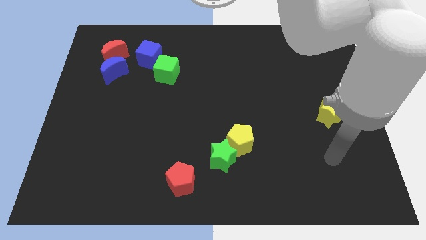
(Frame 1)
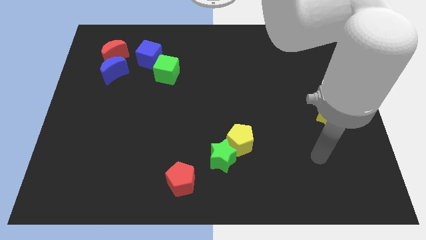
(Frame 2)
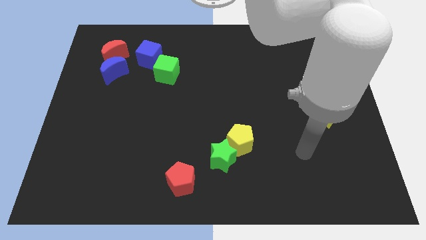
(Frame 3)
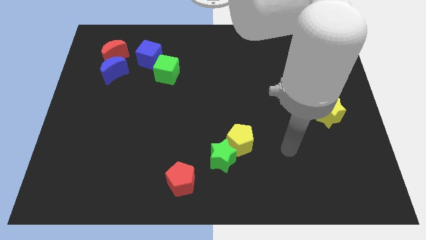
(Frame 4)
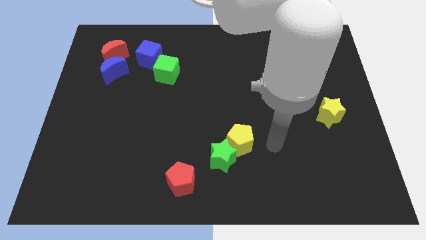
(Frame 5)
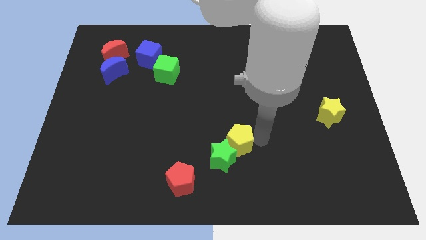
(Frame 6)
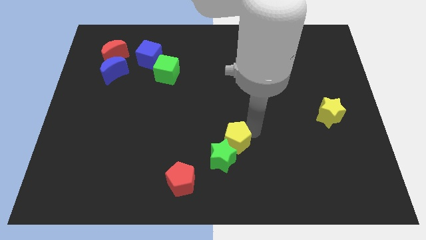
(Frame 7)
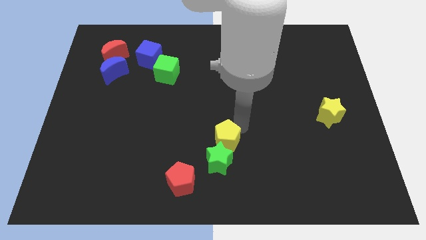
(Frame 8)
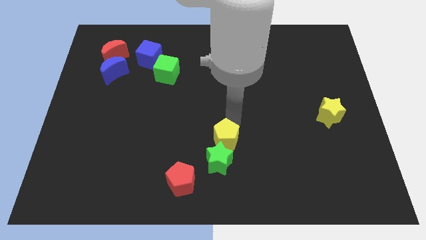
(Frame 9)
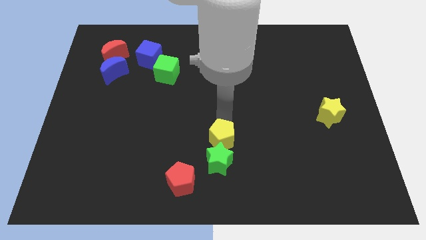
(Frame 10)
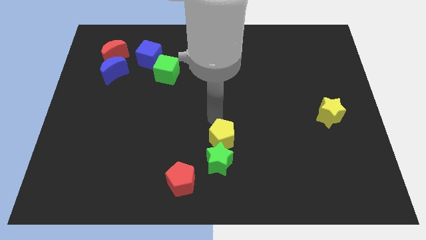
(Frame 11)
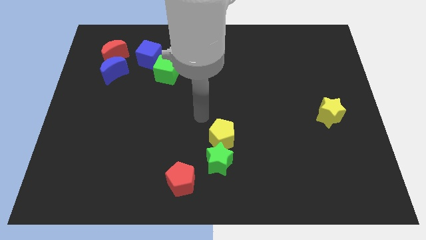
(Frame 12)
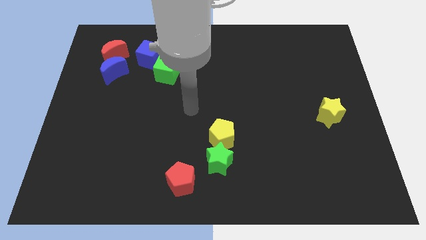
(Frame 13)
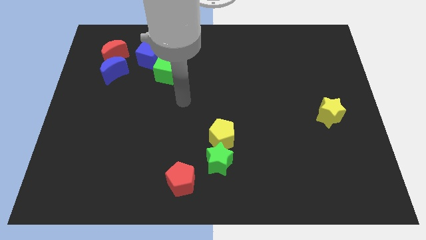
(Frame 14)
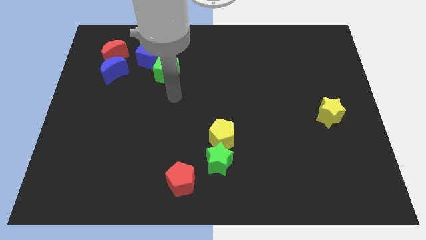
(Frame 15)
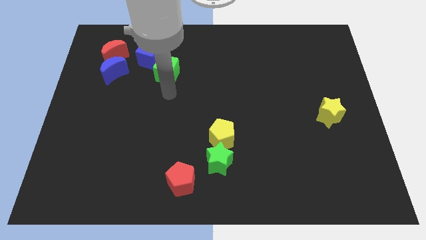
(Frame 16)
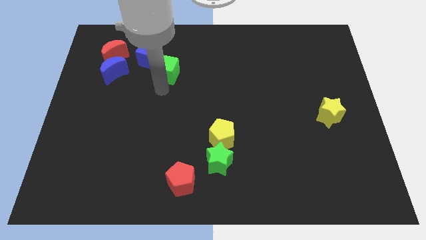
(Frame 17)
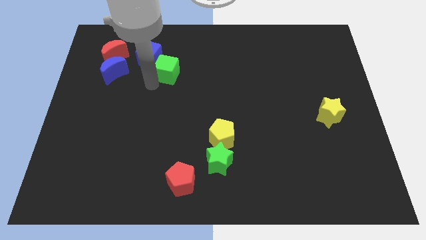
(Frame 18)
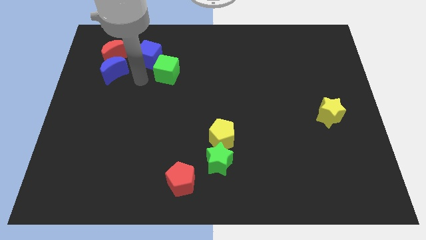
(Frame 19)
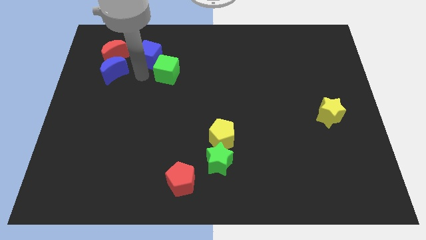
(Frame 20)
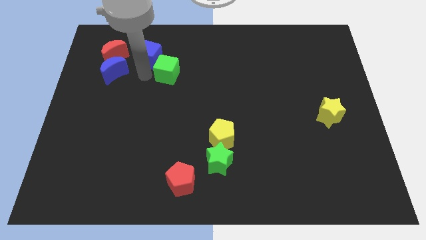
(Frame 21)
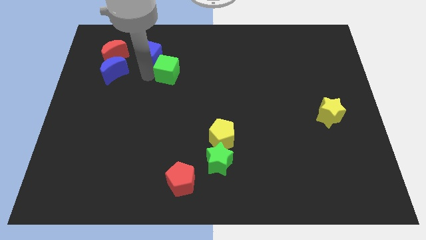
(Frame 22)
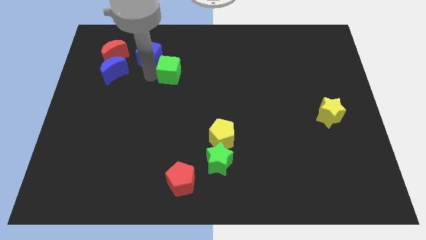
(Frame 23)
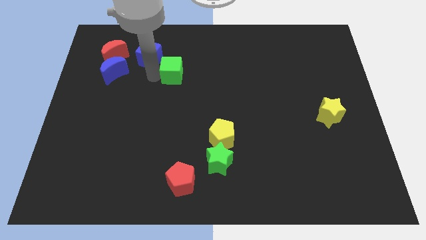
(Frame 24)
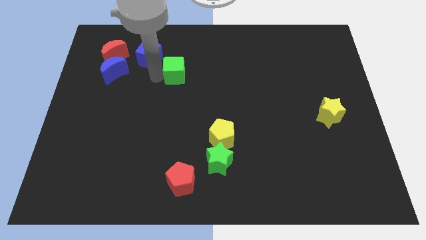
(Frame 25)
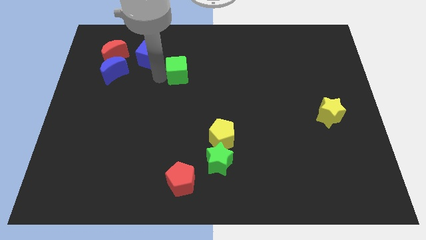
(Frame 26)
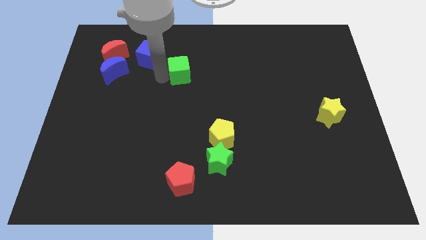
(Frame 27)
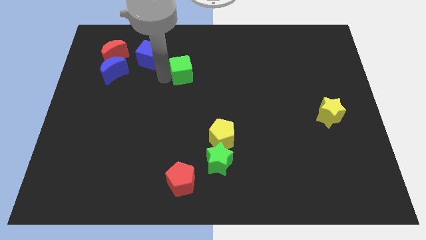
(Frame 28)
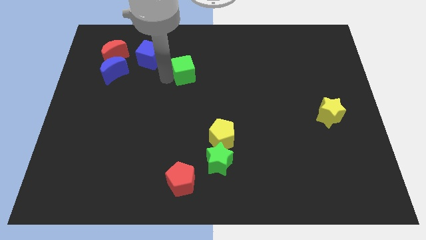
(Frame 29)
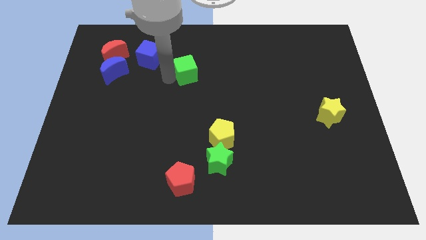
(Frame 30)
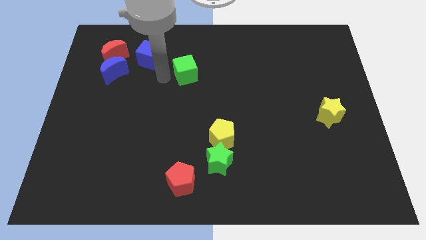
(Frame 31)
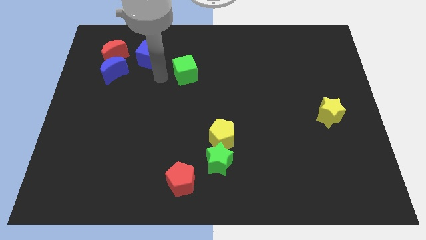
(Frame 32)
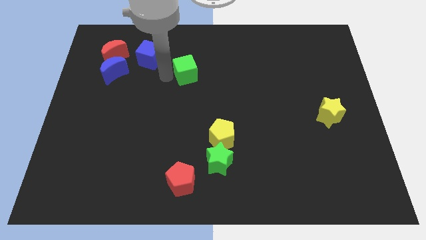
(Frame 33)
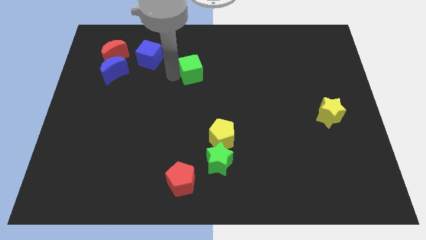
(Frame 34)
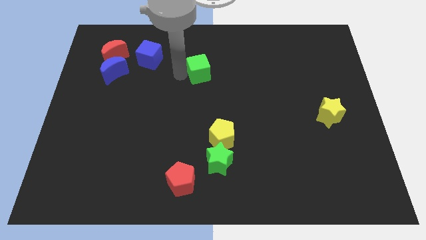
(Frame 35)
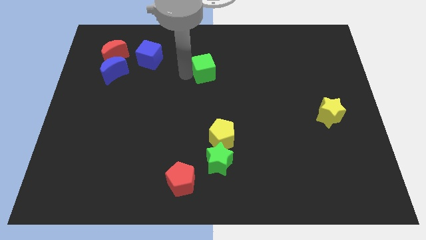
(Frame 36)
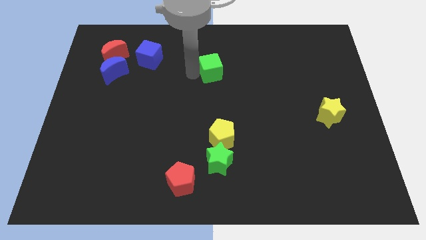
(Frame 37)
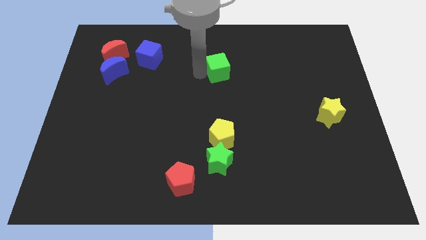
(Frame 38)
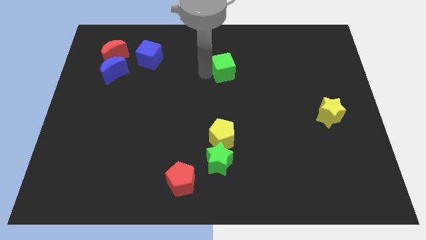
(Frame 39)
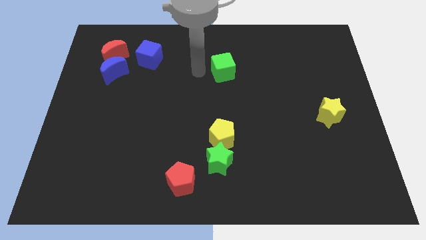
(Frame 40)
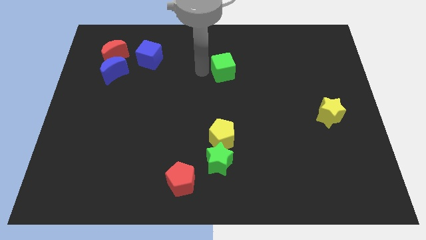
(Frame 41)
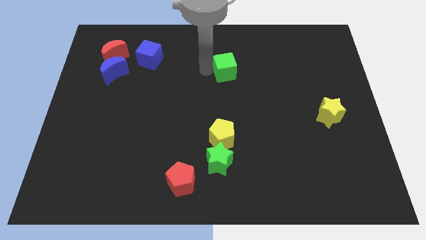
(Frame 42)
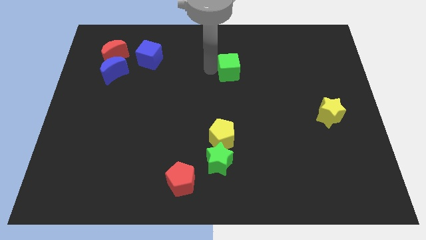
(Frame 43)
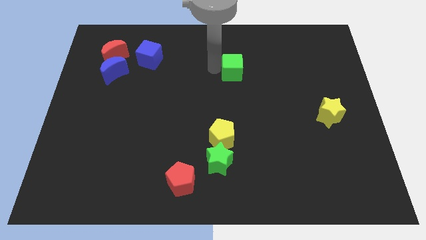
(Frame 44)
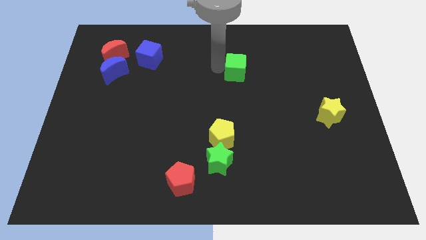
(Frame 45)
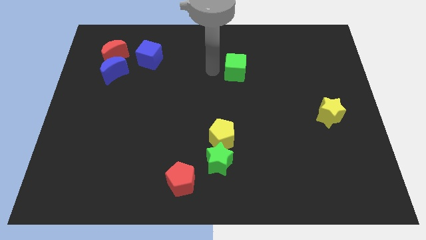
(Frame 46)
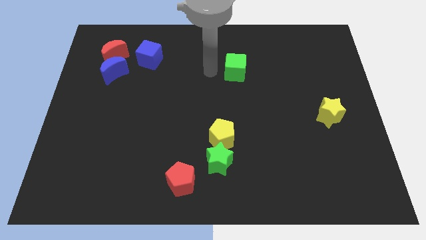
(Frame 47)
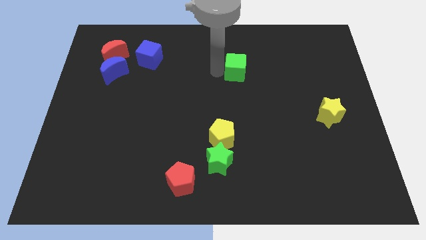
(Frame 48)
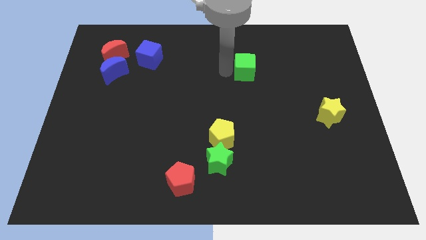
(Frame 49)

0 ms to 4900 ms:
move the green cube right

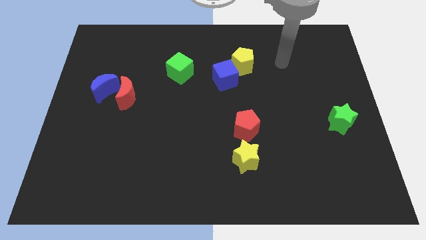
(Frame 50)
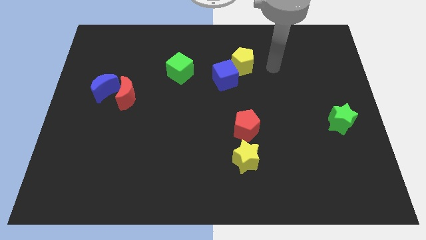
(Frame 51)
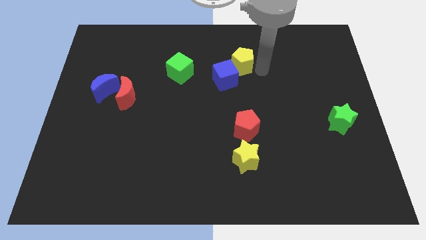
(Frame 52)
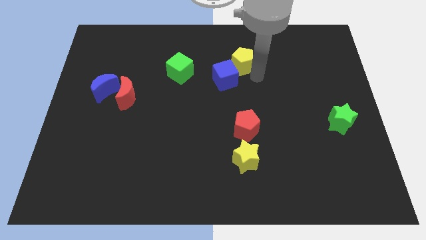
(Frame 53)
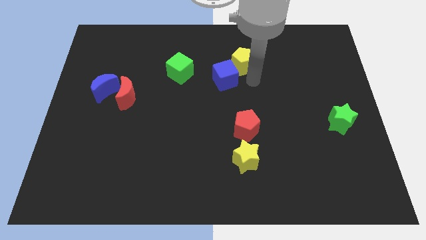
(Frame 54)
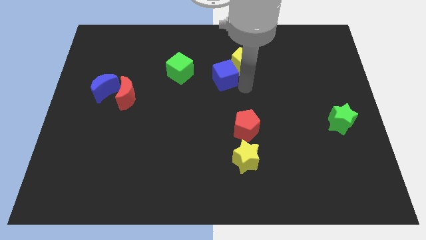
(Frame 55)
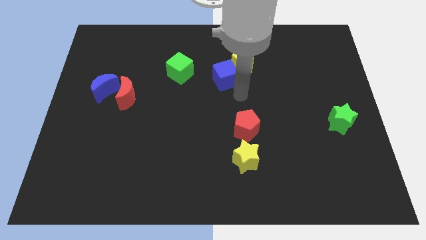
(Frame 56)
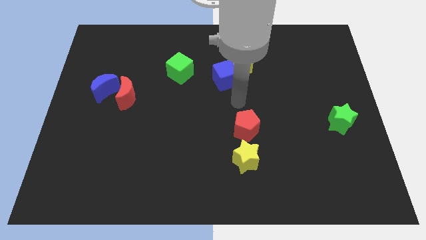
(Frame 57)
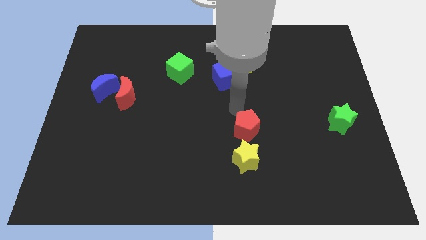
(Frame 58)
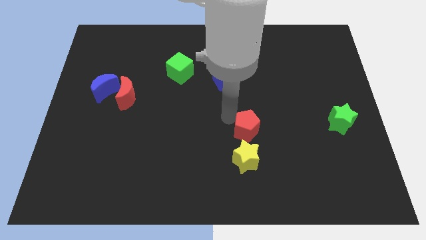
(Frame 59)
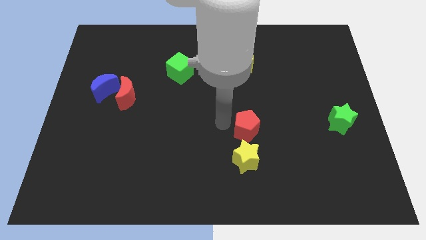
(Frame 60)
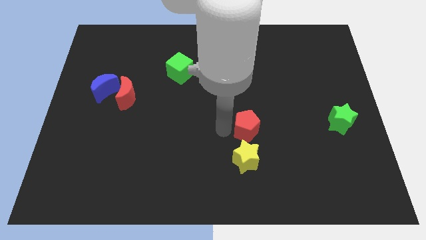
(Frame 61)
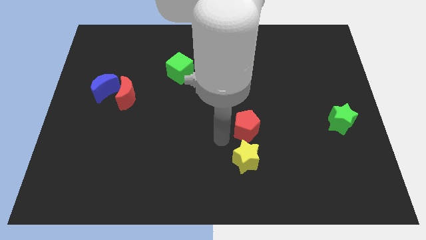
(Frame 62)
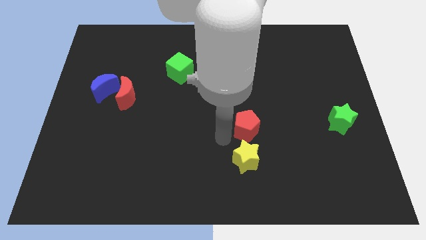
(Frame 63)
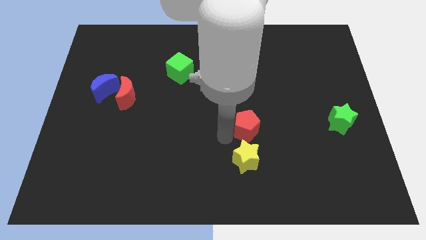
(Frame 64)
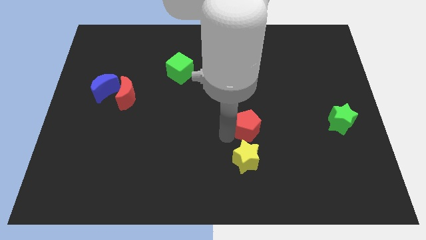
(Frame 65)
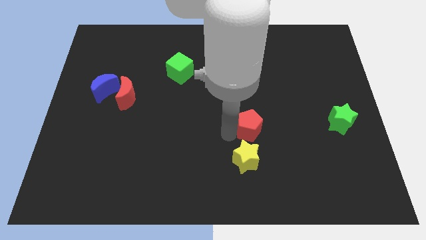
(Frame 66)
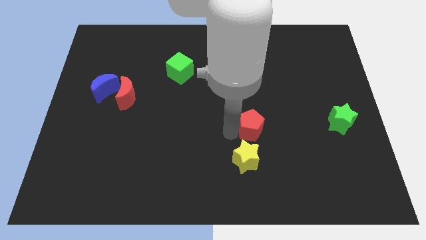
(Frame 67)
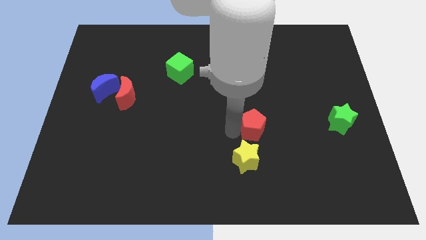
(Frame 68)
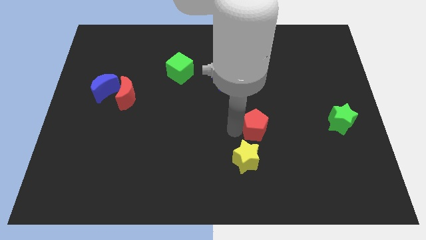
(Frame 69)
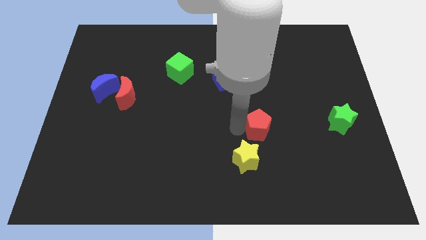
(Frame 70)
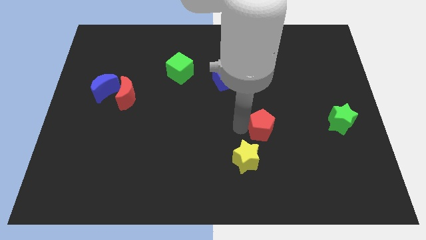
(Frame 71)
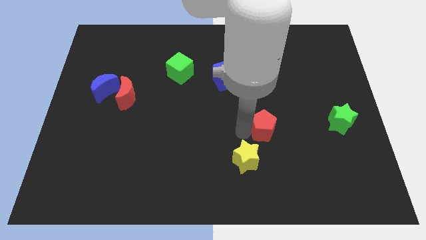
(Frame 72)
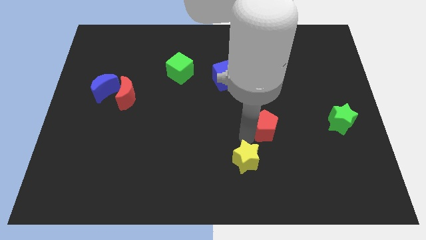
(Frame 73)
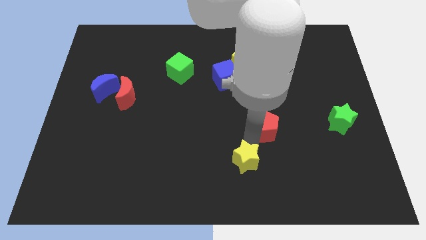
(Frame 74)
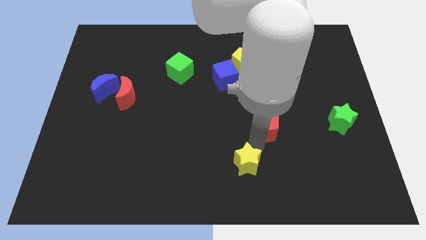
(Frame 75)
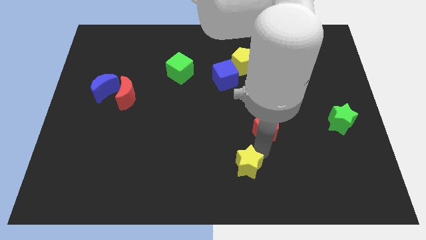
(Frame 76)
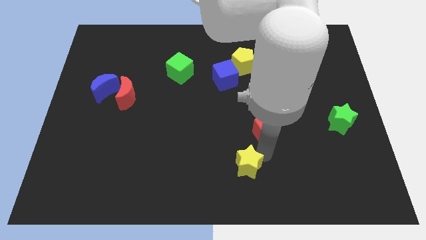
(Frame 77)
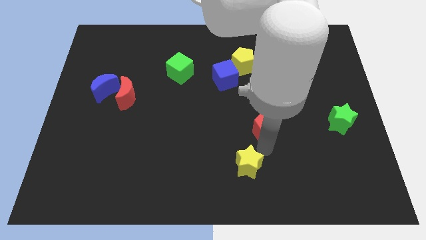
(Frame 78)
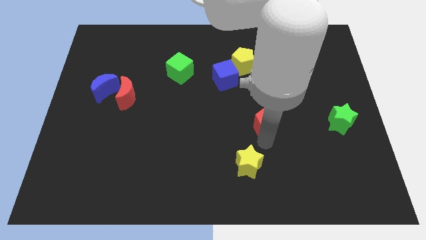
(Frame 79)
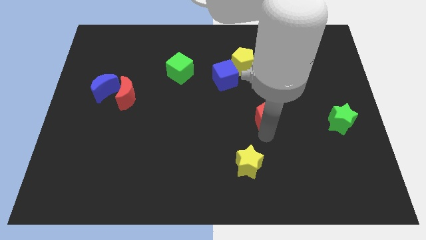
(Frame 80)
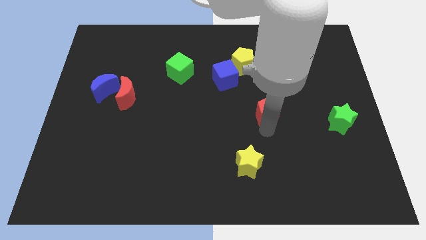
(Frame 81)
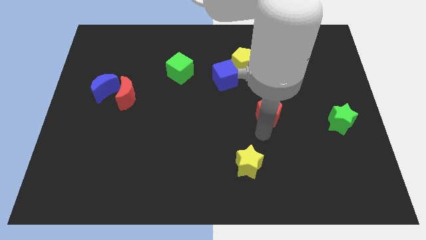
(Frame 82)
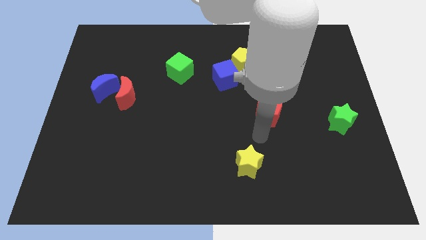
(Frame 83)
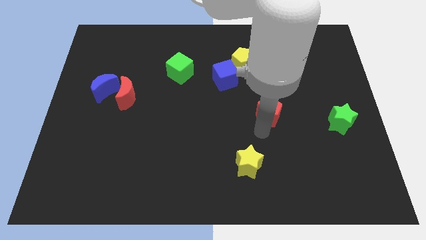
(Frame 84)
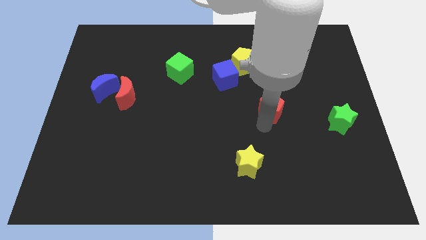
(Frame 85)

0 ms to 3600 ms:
push the red pentagon upwards and right diagonally a little bit
